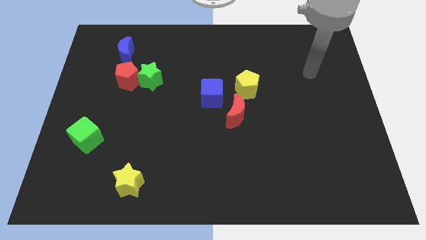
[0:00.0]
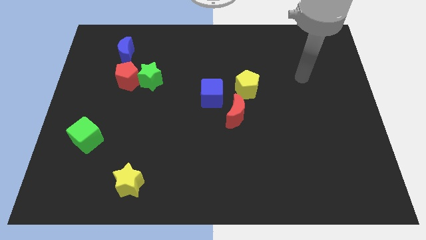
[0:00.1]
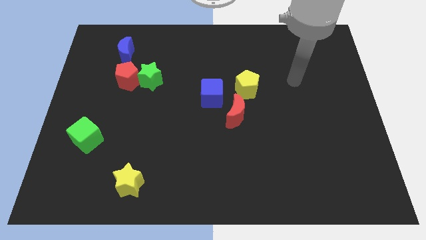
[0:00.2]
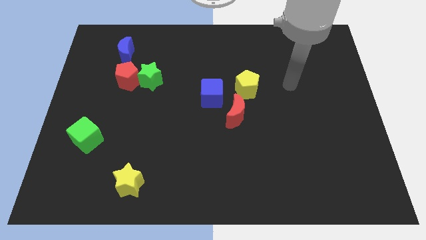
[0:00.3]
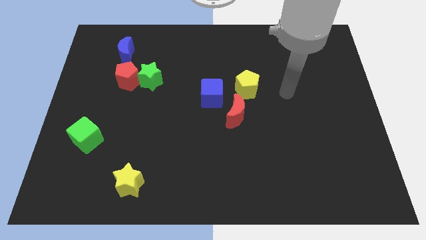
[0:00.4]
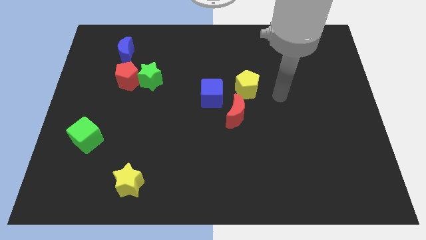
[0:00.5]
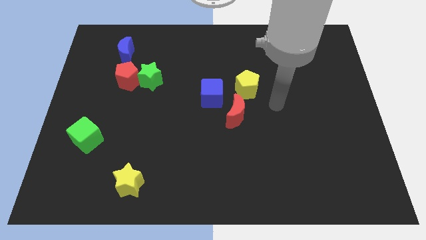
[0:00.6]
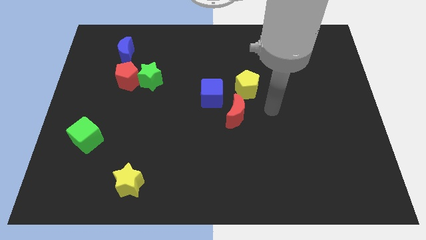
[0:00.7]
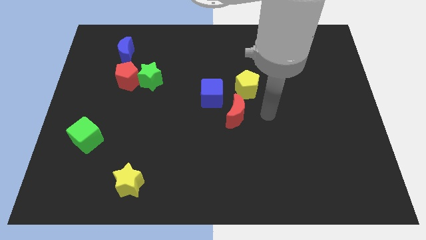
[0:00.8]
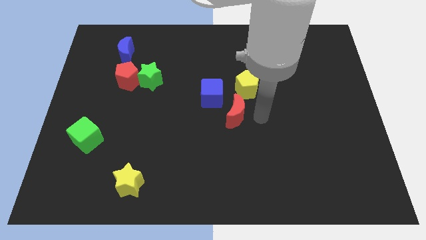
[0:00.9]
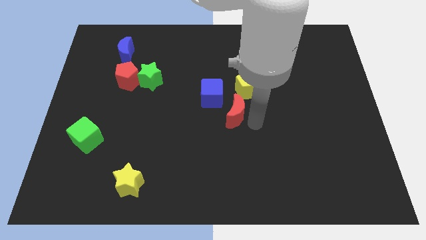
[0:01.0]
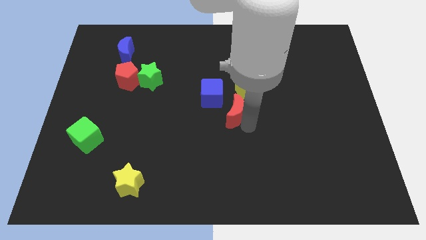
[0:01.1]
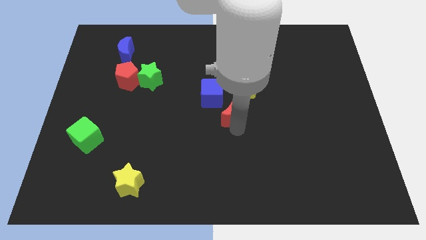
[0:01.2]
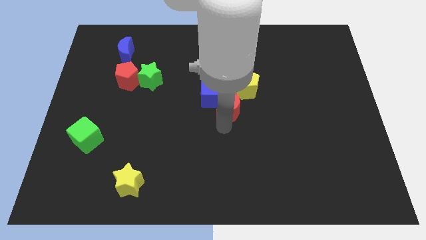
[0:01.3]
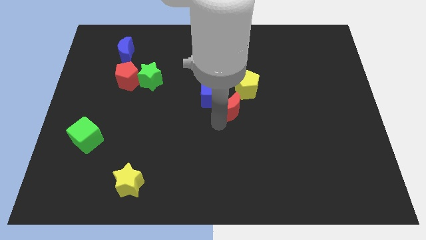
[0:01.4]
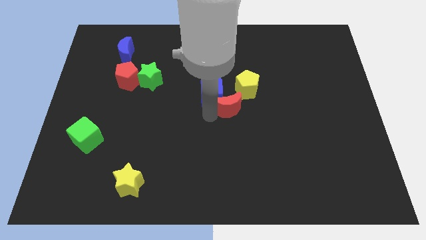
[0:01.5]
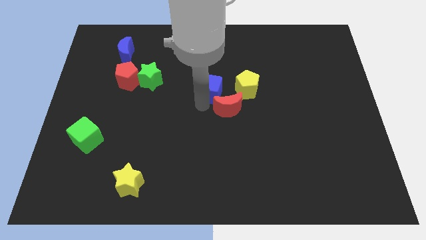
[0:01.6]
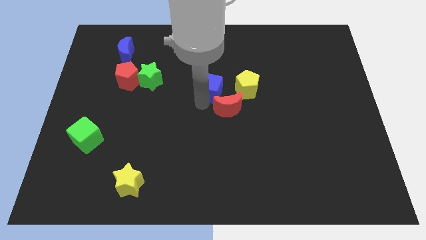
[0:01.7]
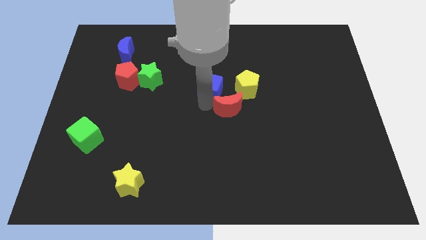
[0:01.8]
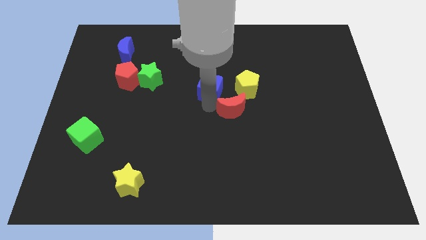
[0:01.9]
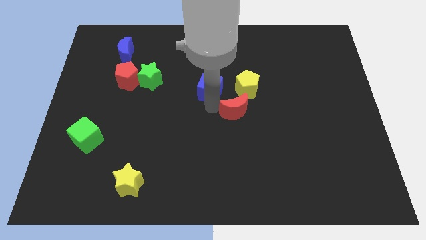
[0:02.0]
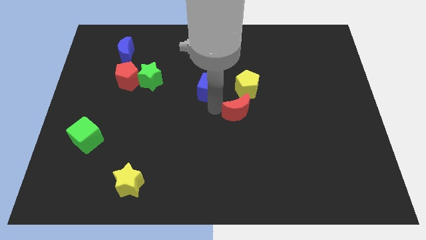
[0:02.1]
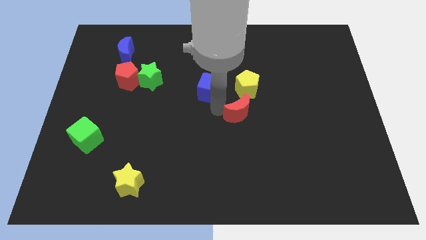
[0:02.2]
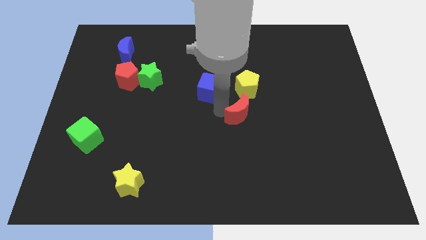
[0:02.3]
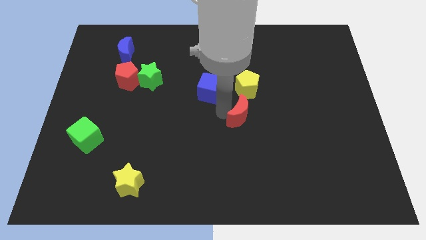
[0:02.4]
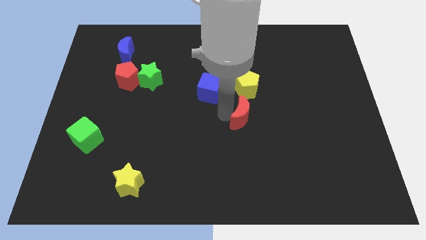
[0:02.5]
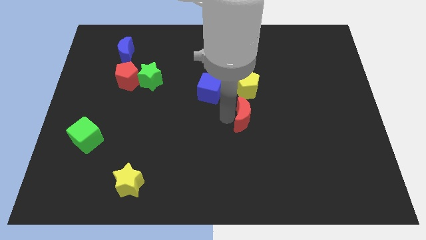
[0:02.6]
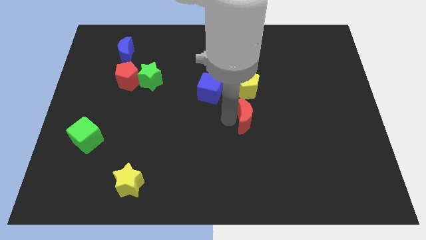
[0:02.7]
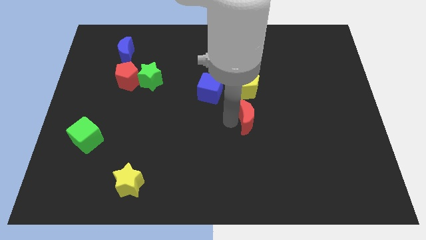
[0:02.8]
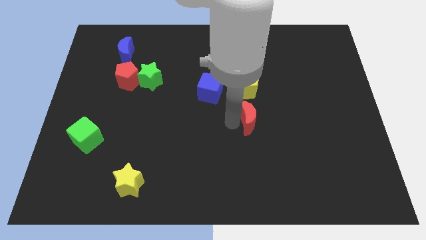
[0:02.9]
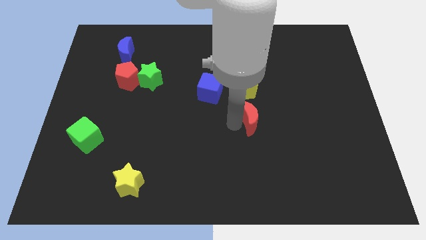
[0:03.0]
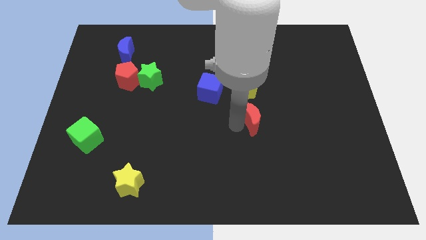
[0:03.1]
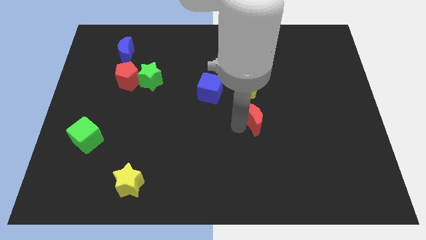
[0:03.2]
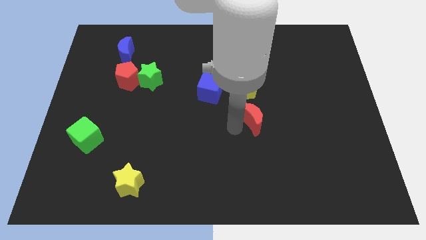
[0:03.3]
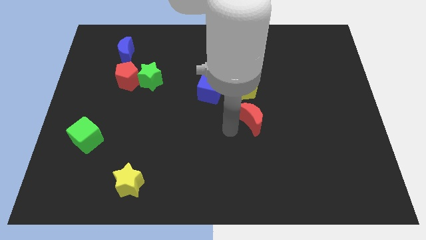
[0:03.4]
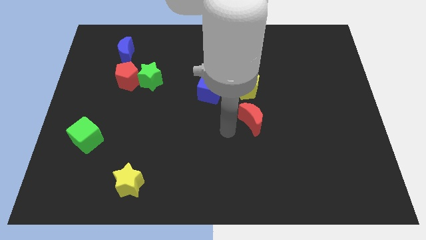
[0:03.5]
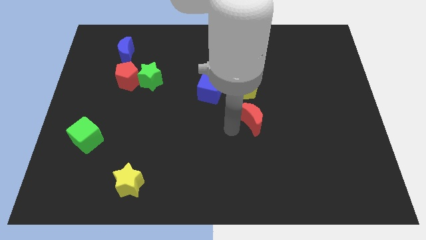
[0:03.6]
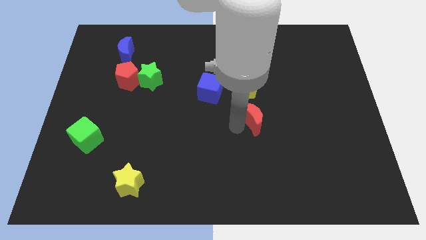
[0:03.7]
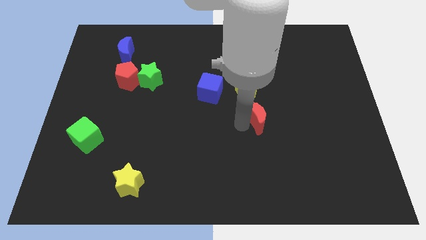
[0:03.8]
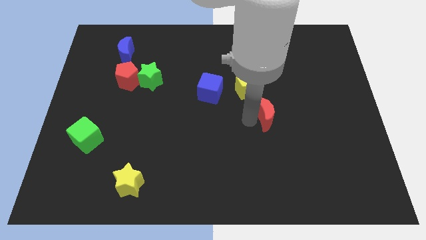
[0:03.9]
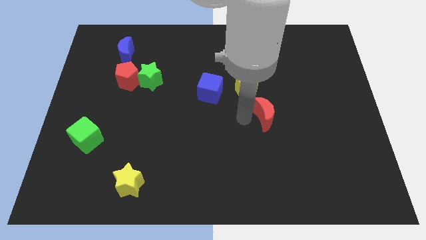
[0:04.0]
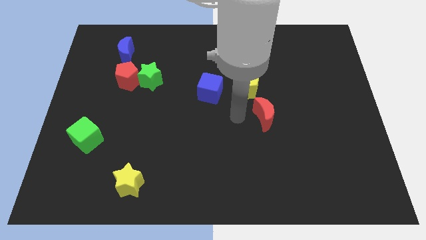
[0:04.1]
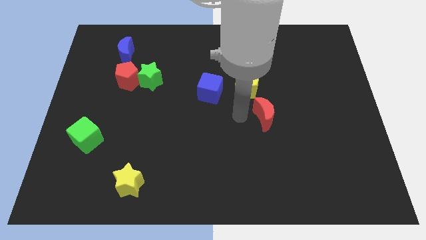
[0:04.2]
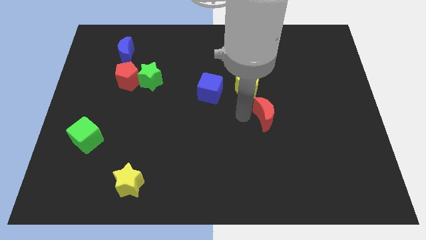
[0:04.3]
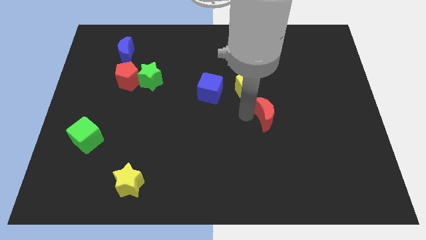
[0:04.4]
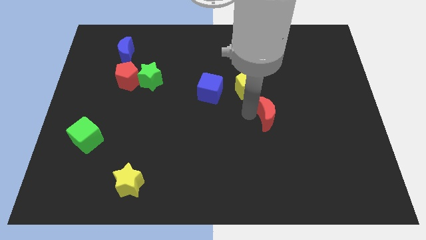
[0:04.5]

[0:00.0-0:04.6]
slightly move the red moon right

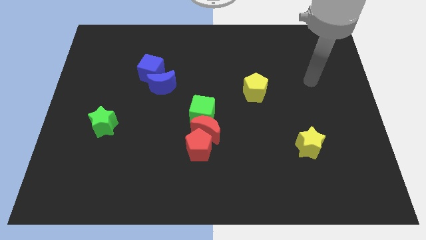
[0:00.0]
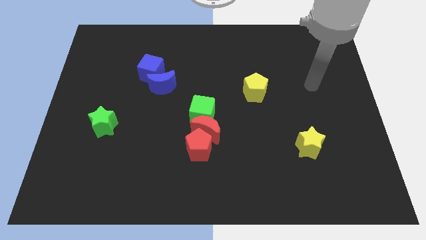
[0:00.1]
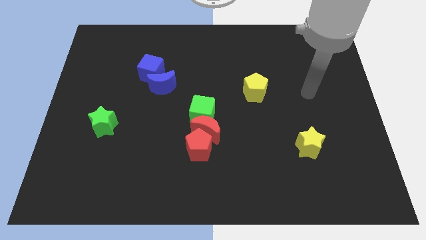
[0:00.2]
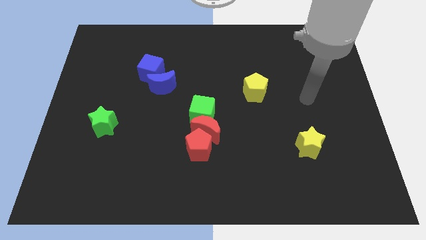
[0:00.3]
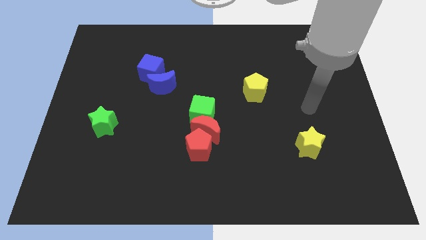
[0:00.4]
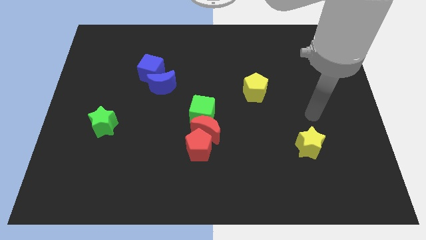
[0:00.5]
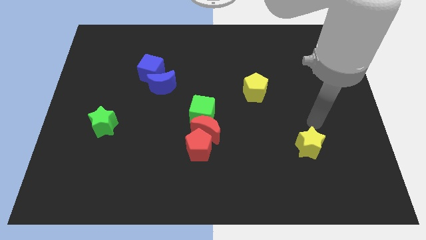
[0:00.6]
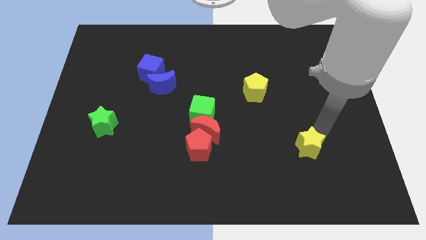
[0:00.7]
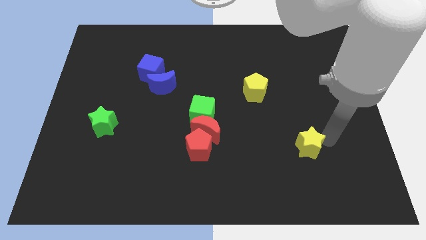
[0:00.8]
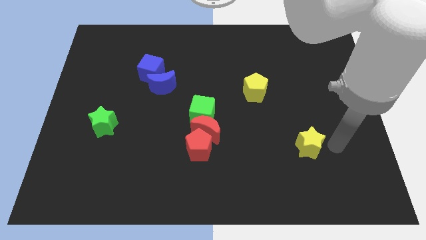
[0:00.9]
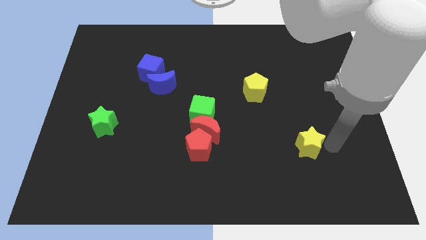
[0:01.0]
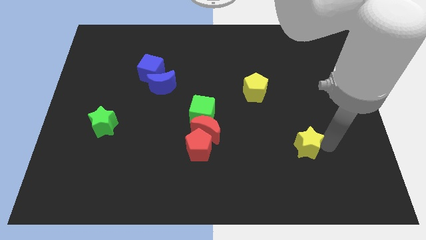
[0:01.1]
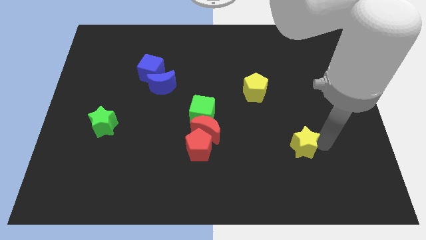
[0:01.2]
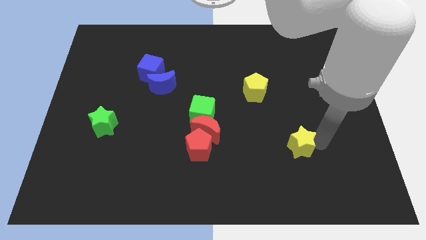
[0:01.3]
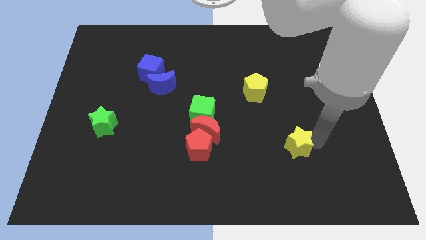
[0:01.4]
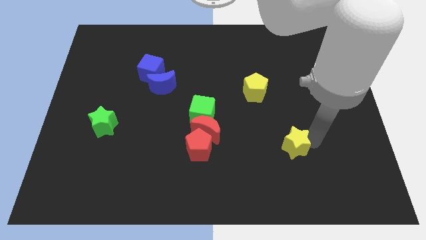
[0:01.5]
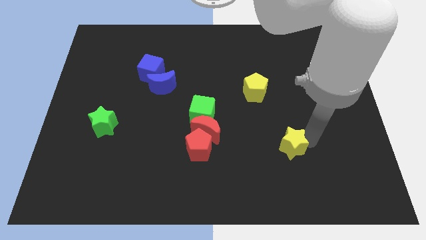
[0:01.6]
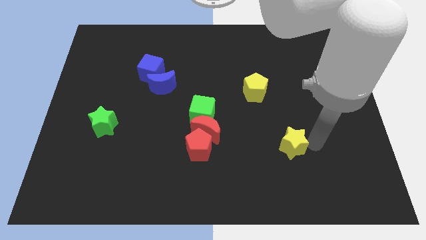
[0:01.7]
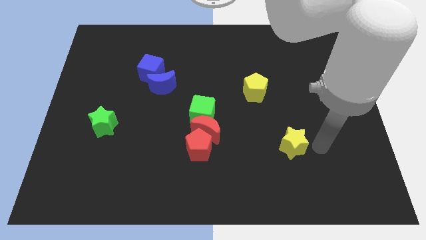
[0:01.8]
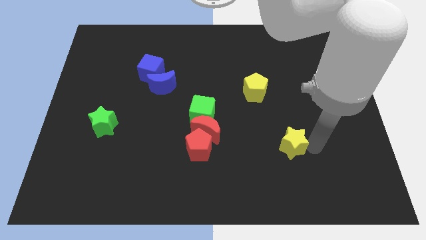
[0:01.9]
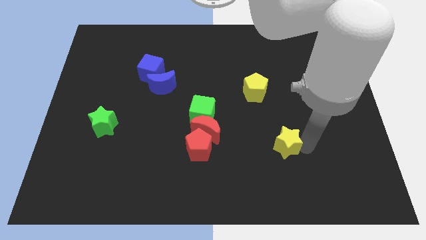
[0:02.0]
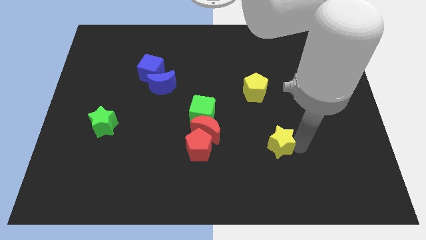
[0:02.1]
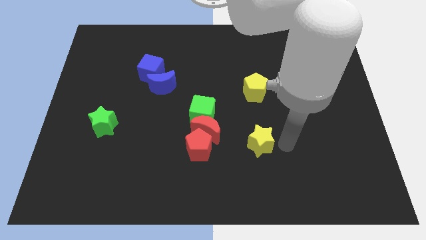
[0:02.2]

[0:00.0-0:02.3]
move the yellow star somewhat to the left

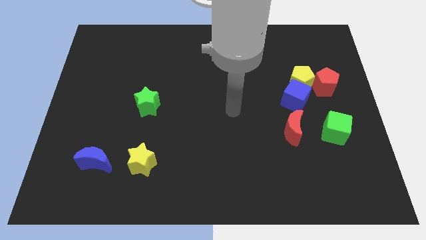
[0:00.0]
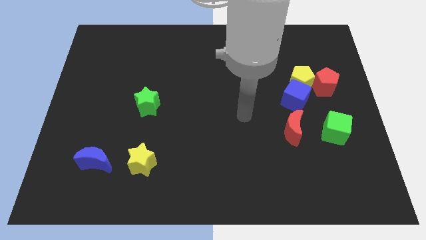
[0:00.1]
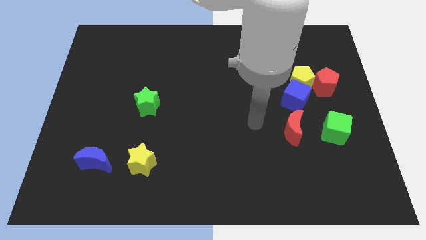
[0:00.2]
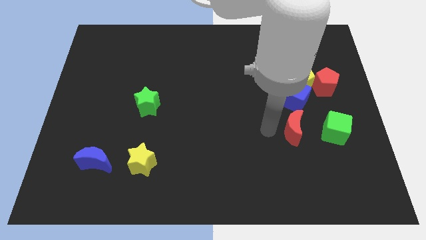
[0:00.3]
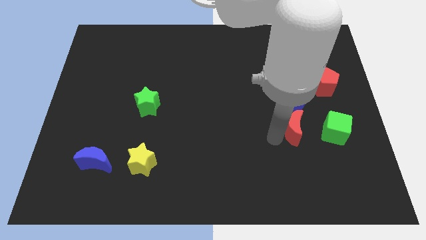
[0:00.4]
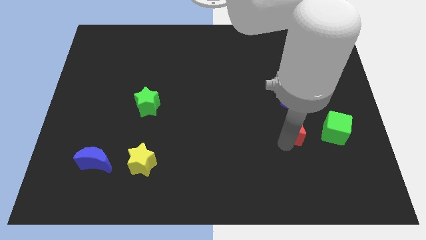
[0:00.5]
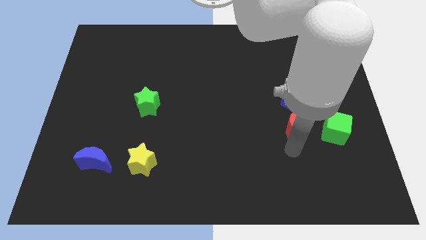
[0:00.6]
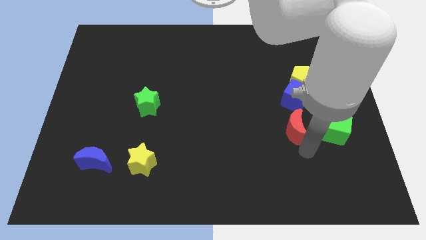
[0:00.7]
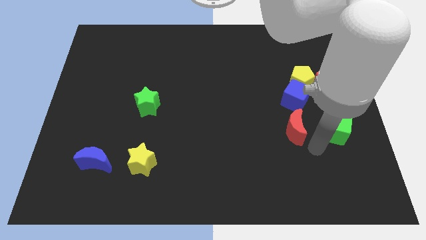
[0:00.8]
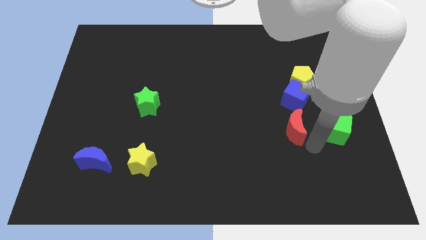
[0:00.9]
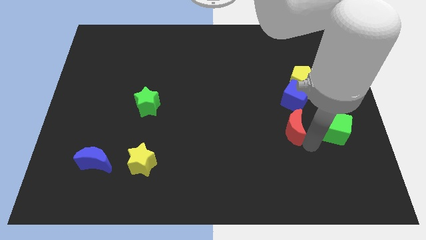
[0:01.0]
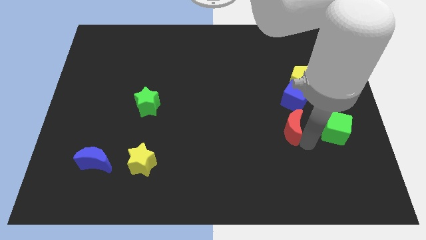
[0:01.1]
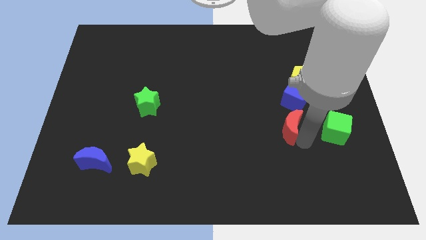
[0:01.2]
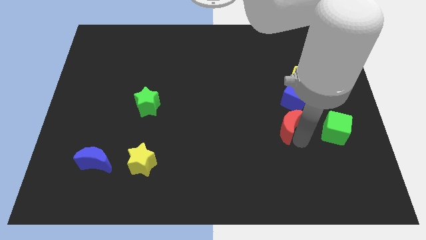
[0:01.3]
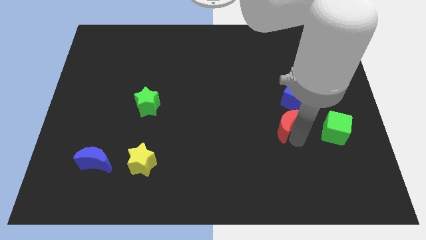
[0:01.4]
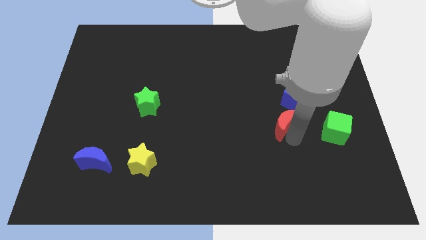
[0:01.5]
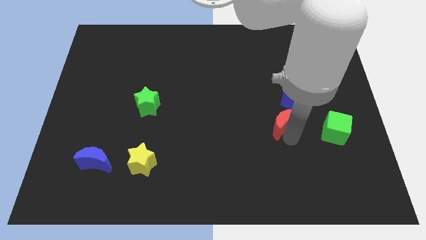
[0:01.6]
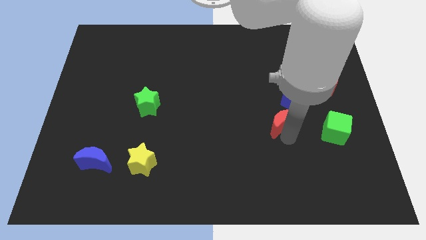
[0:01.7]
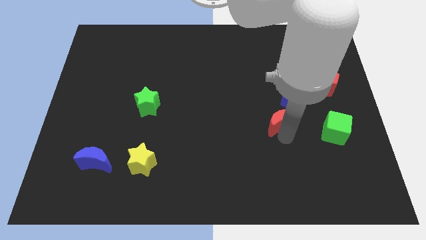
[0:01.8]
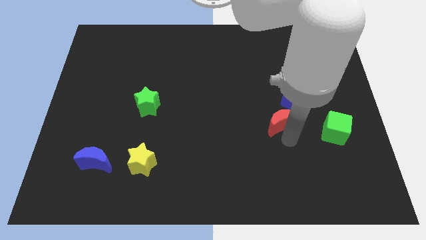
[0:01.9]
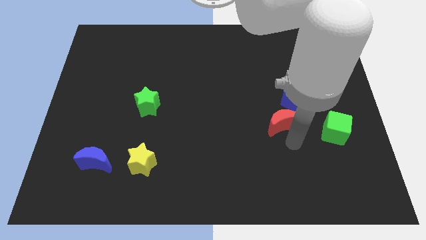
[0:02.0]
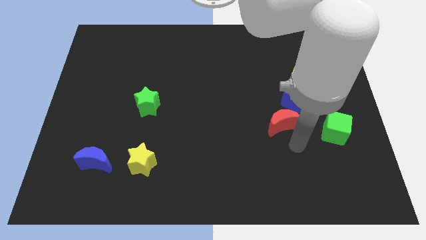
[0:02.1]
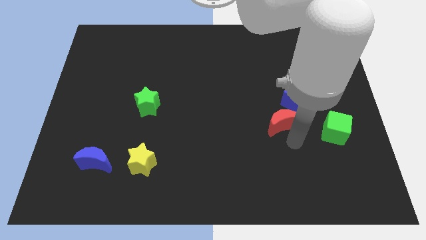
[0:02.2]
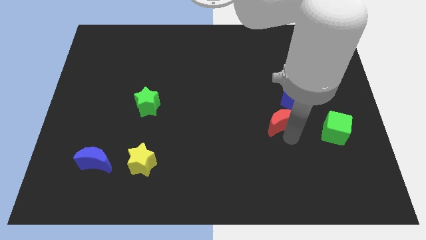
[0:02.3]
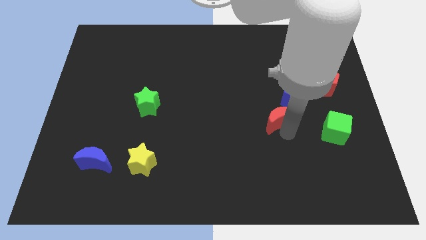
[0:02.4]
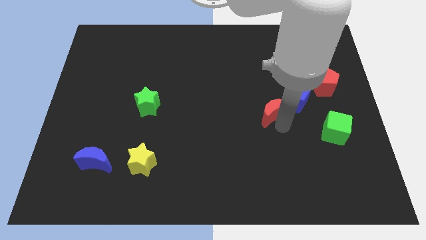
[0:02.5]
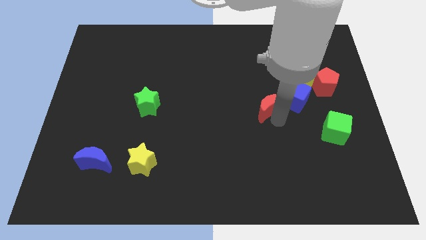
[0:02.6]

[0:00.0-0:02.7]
push the red moon upwards and then to the left a little bit
